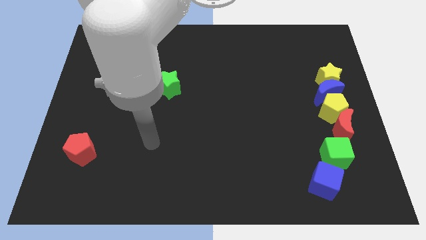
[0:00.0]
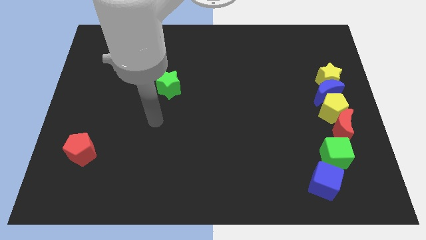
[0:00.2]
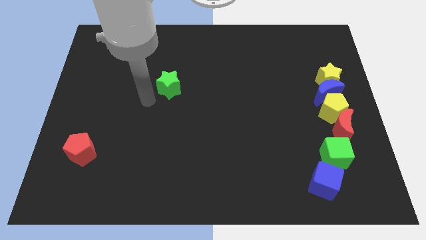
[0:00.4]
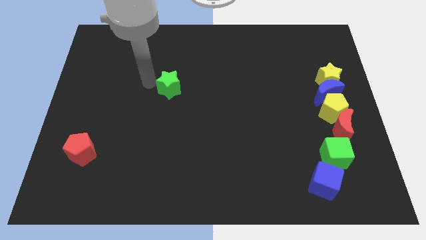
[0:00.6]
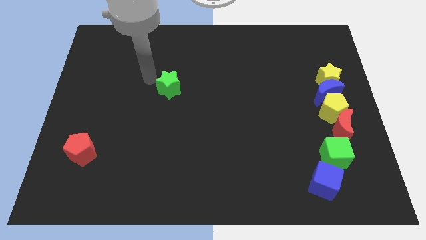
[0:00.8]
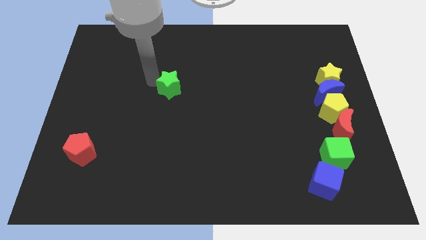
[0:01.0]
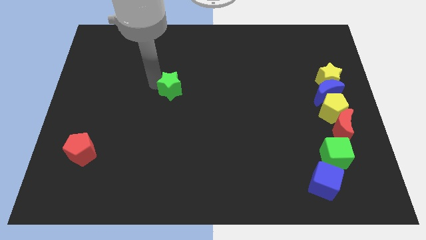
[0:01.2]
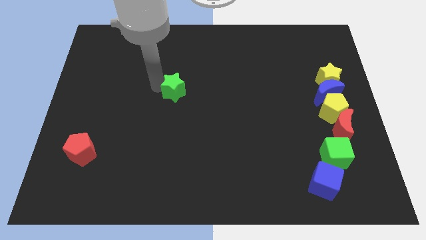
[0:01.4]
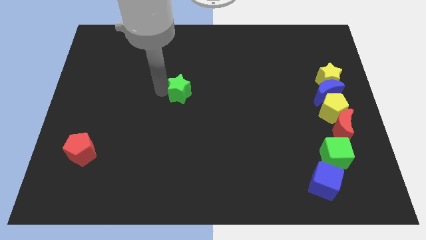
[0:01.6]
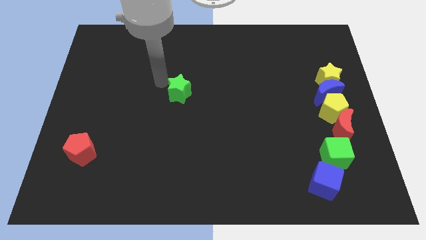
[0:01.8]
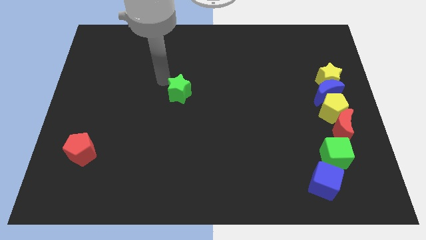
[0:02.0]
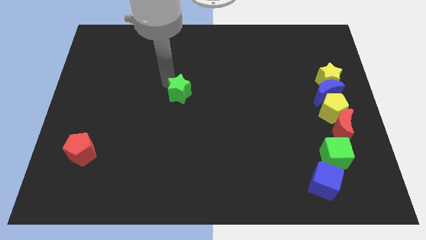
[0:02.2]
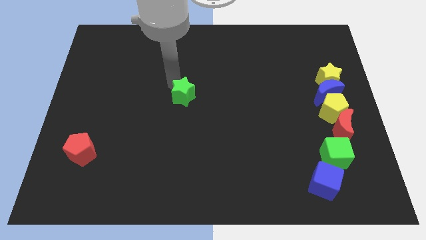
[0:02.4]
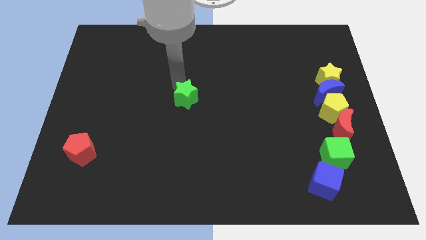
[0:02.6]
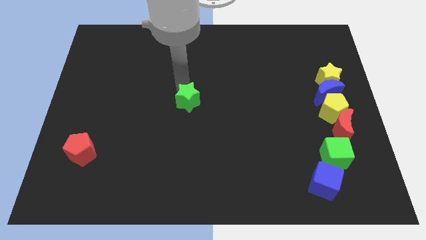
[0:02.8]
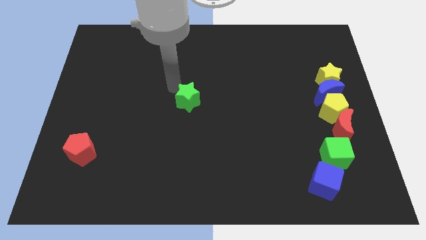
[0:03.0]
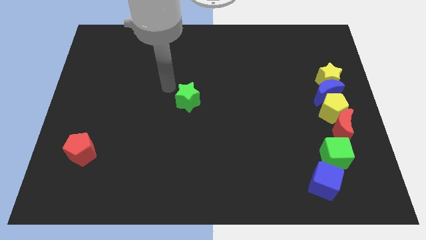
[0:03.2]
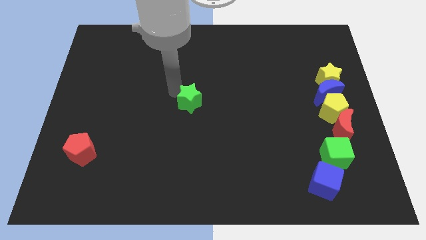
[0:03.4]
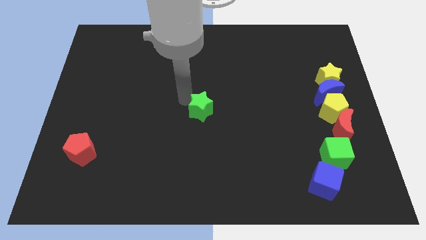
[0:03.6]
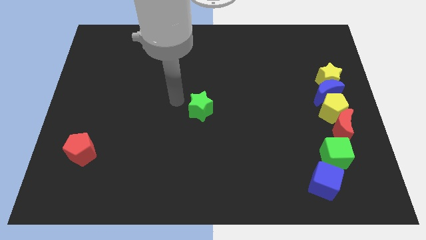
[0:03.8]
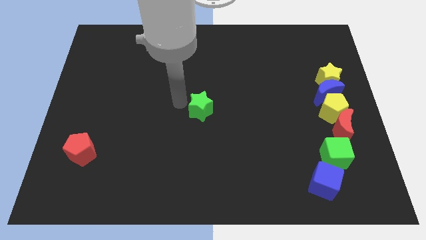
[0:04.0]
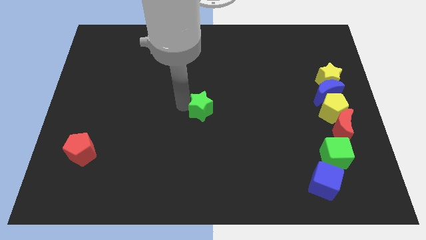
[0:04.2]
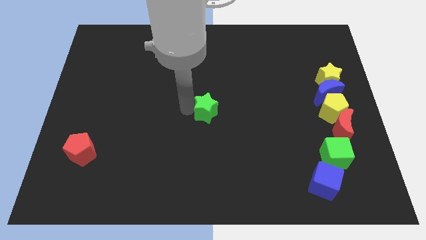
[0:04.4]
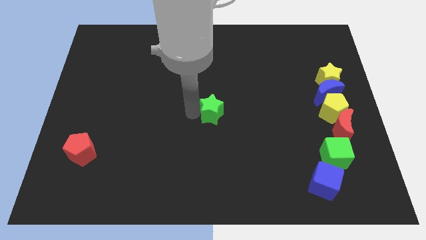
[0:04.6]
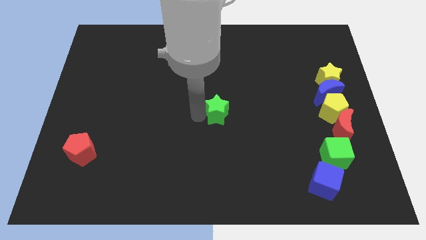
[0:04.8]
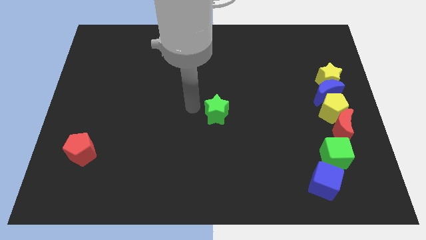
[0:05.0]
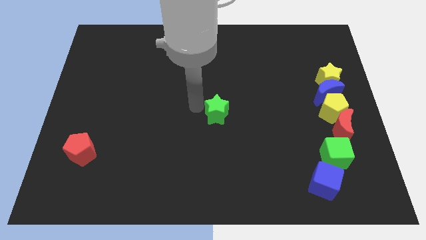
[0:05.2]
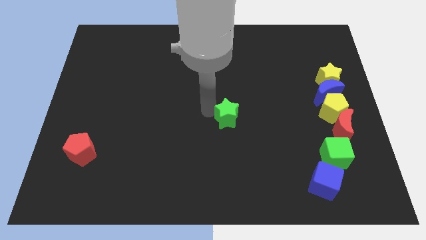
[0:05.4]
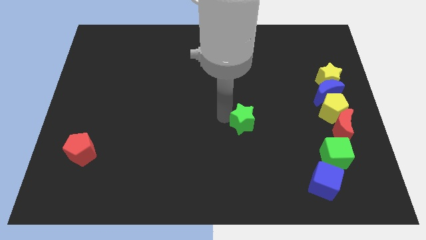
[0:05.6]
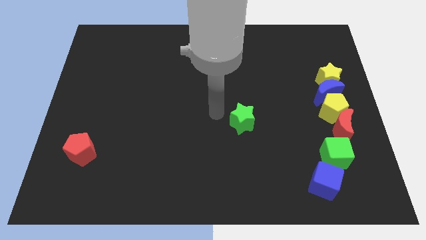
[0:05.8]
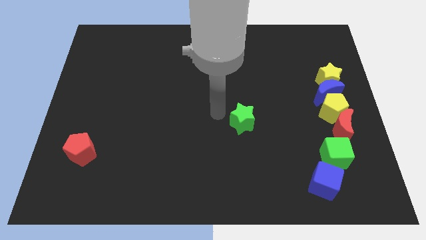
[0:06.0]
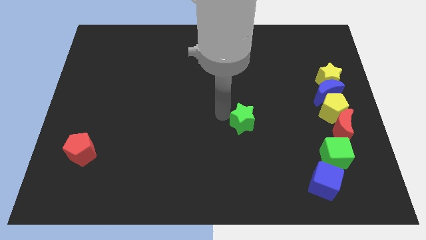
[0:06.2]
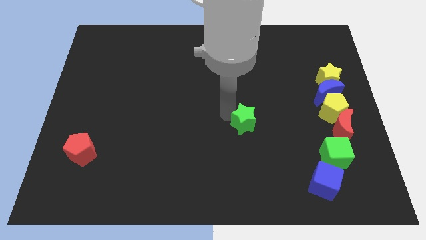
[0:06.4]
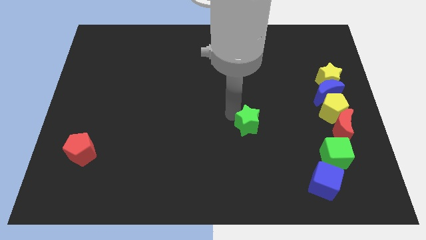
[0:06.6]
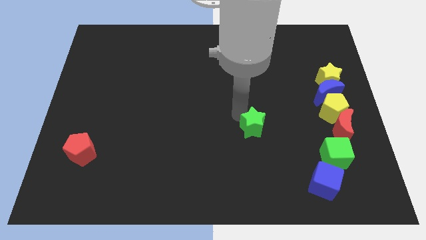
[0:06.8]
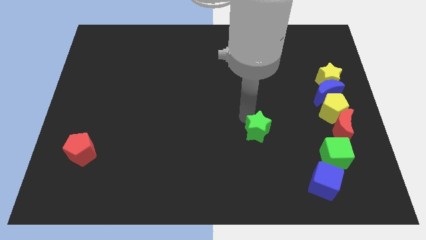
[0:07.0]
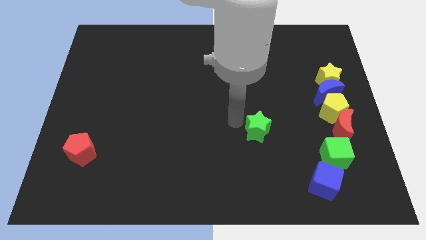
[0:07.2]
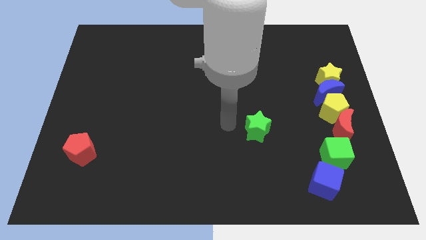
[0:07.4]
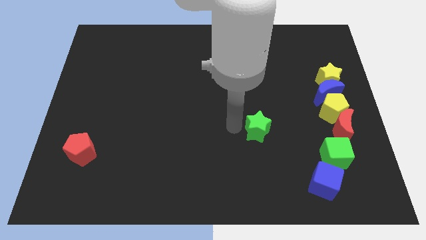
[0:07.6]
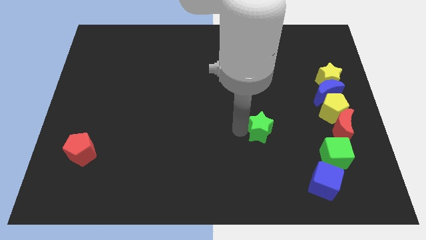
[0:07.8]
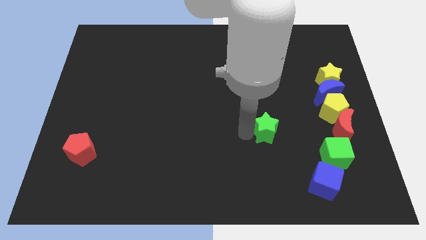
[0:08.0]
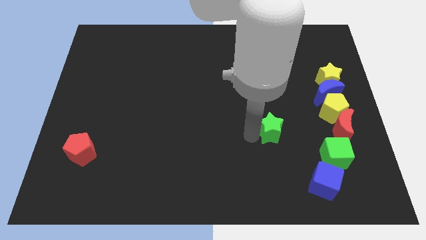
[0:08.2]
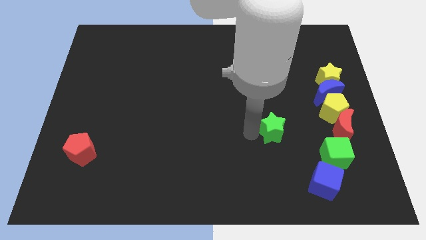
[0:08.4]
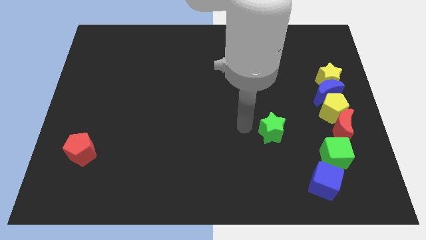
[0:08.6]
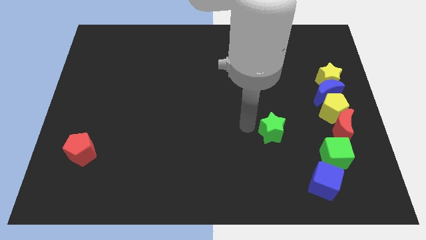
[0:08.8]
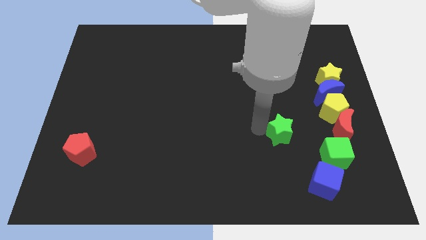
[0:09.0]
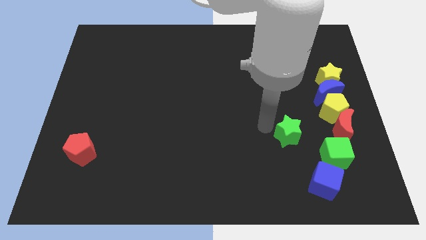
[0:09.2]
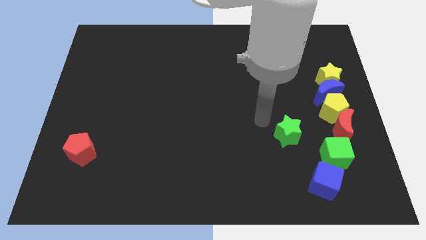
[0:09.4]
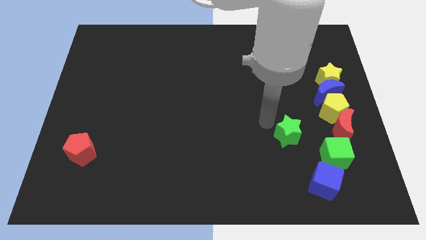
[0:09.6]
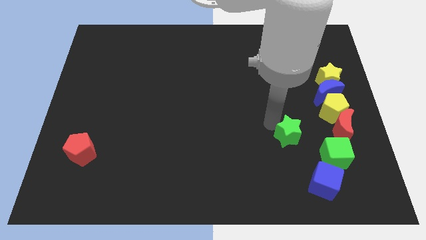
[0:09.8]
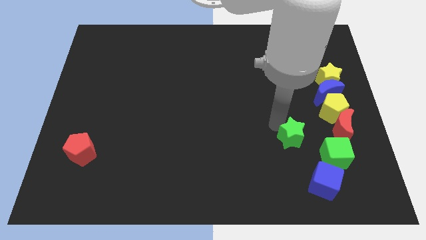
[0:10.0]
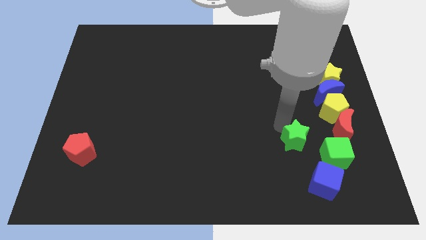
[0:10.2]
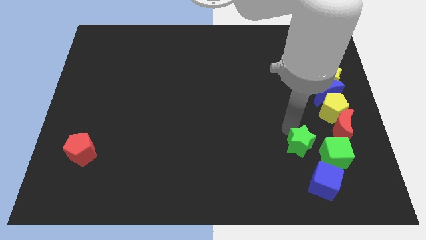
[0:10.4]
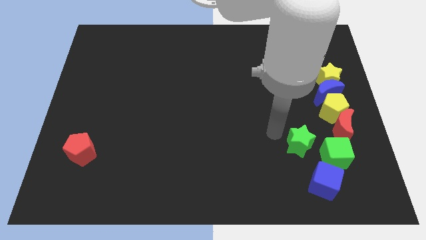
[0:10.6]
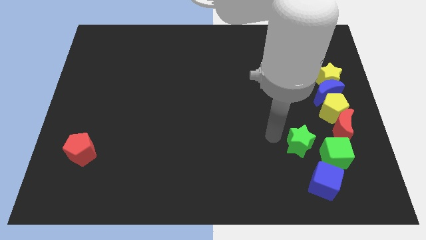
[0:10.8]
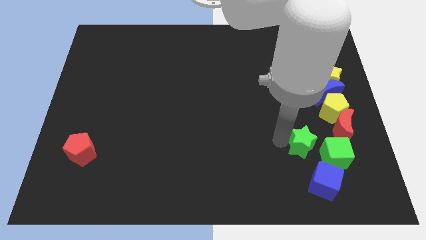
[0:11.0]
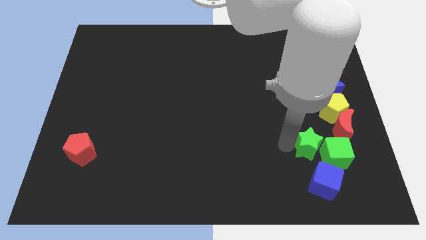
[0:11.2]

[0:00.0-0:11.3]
move the green star close to the green cube
